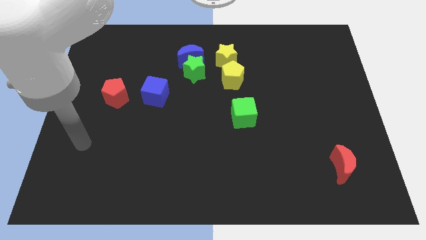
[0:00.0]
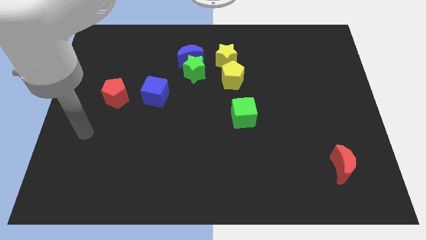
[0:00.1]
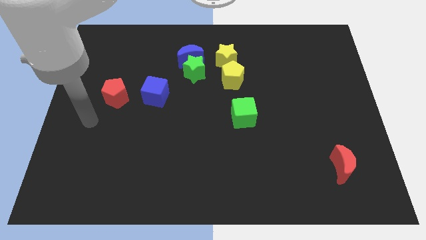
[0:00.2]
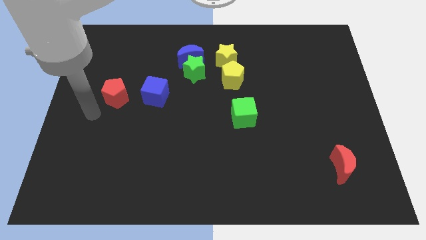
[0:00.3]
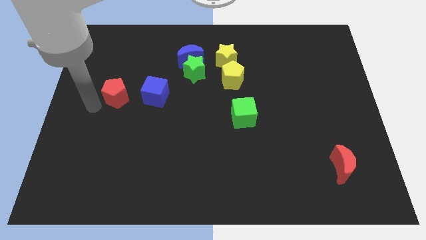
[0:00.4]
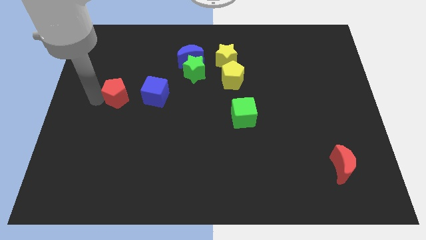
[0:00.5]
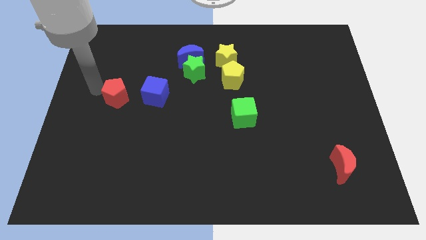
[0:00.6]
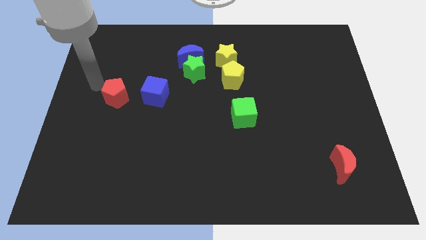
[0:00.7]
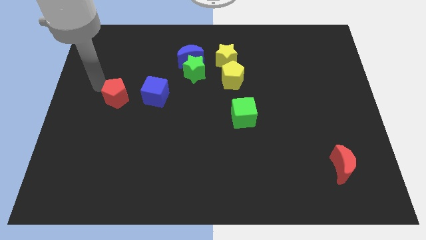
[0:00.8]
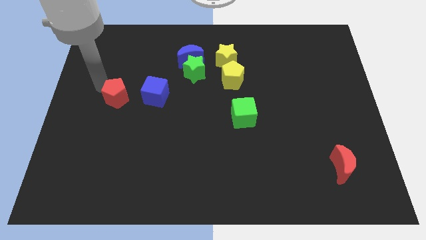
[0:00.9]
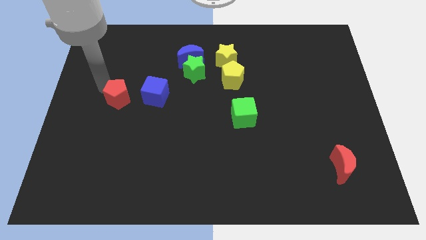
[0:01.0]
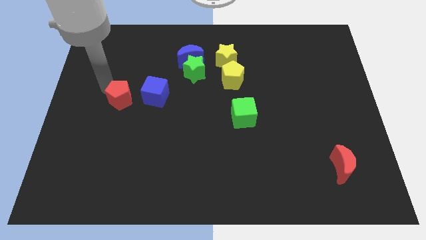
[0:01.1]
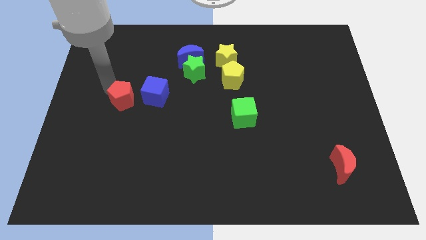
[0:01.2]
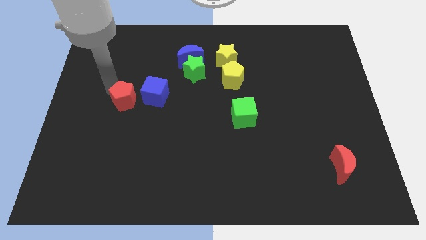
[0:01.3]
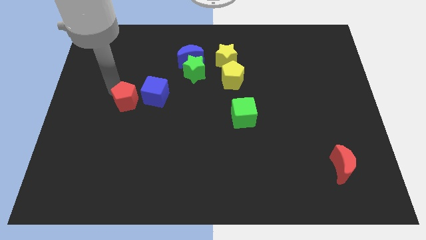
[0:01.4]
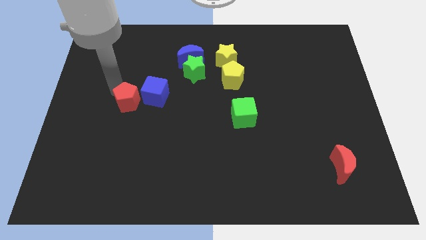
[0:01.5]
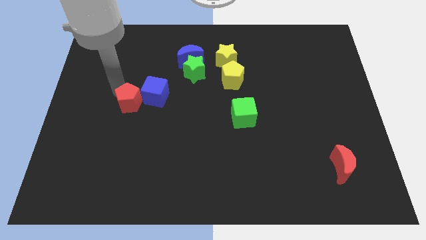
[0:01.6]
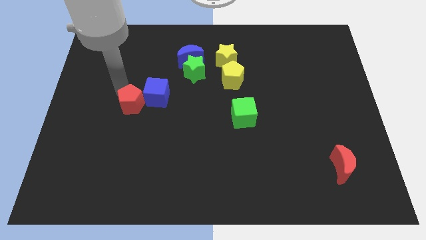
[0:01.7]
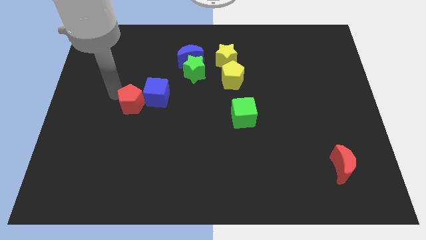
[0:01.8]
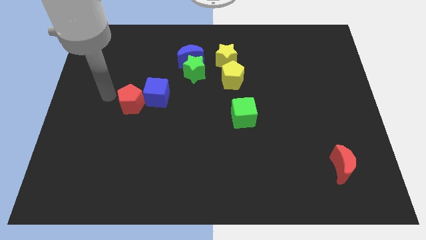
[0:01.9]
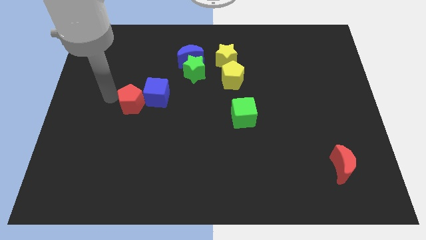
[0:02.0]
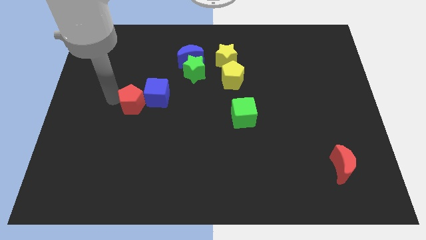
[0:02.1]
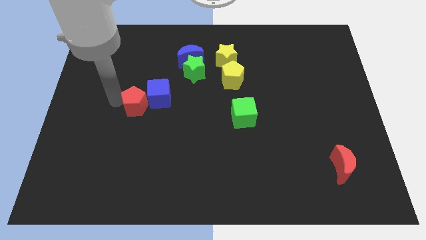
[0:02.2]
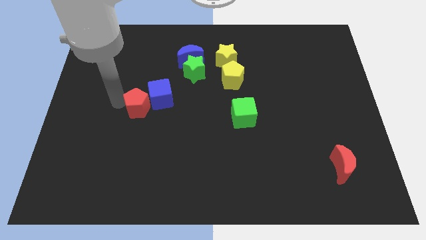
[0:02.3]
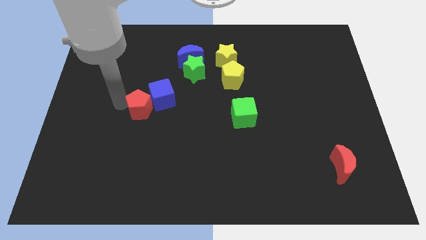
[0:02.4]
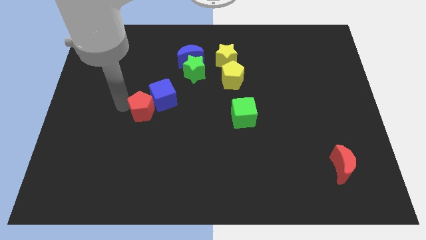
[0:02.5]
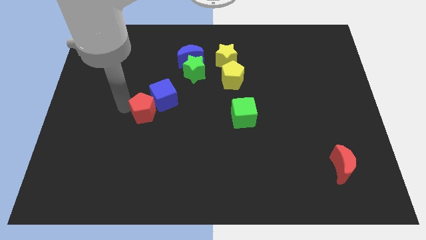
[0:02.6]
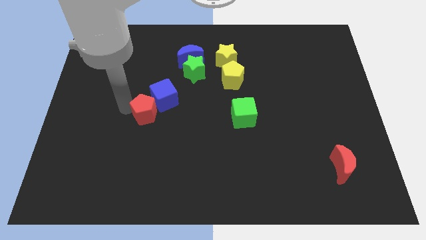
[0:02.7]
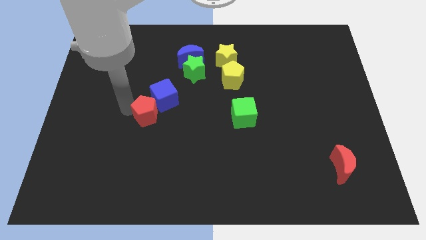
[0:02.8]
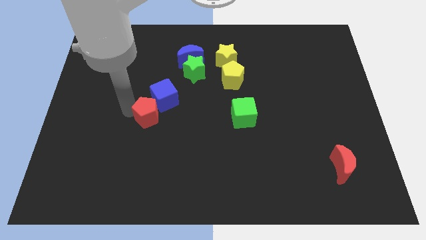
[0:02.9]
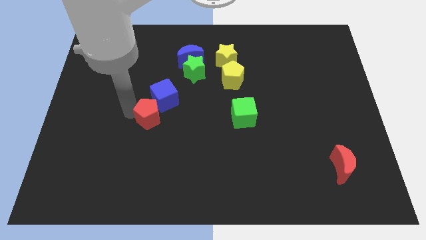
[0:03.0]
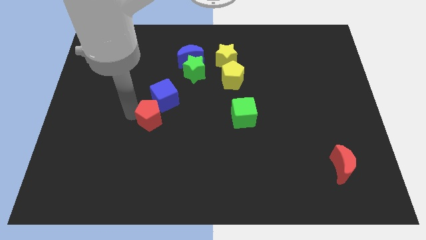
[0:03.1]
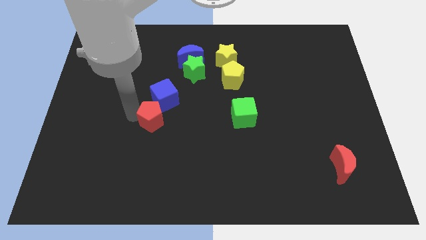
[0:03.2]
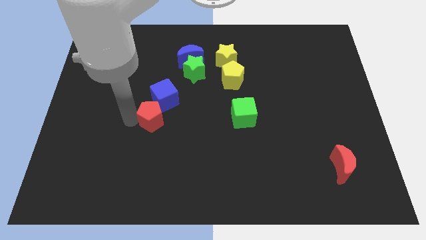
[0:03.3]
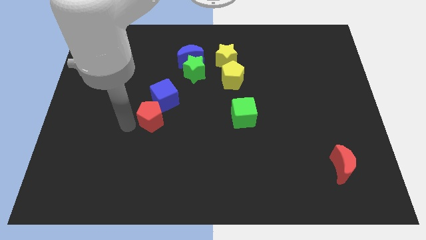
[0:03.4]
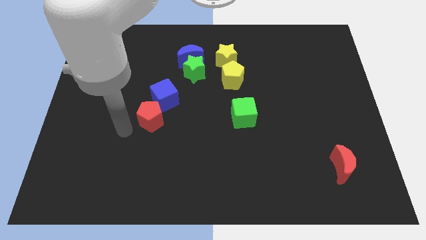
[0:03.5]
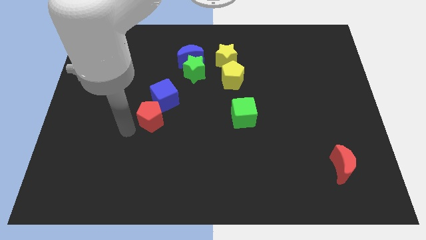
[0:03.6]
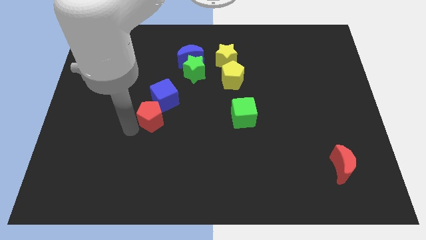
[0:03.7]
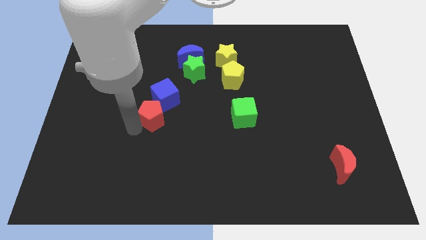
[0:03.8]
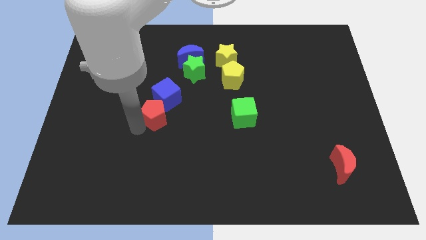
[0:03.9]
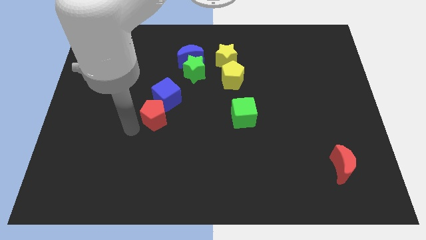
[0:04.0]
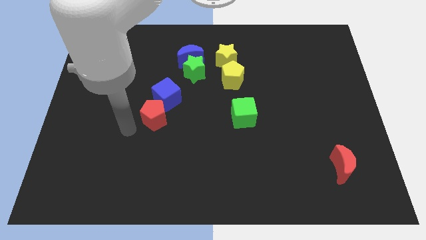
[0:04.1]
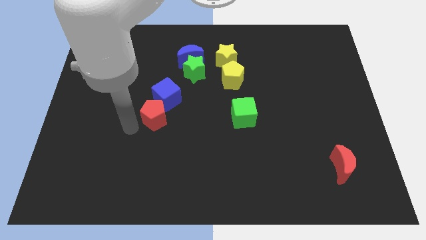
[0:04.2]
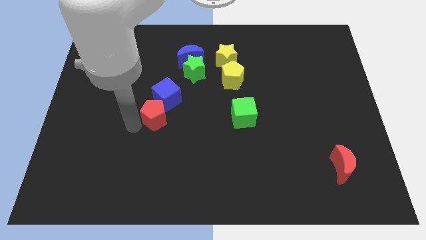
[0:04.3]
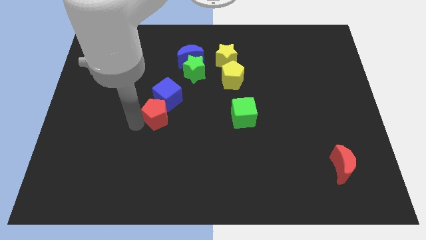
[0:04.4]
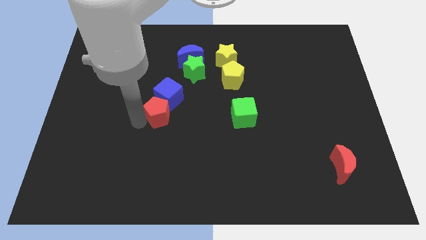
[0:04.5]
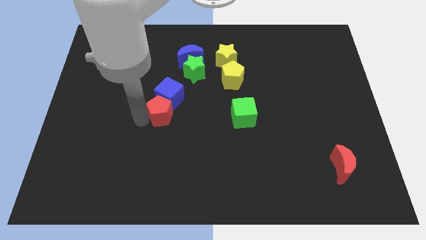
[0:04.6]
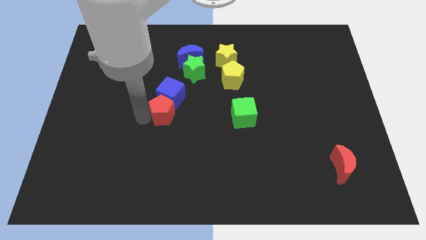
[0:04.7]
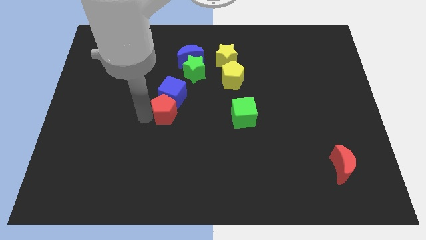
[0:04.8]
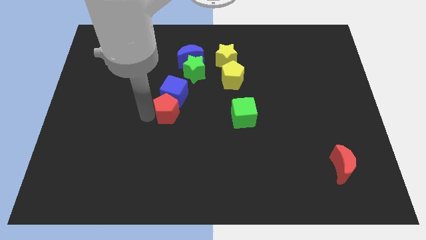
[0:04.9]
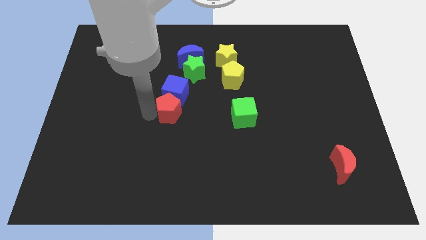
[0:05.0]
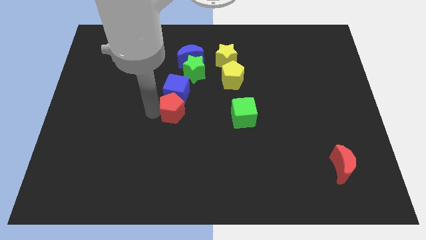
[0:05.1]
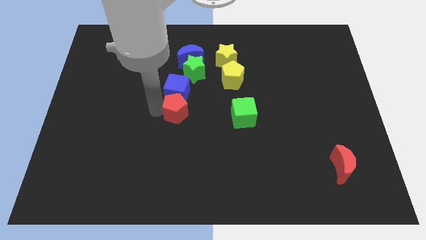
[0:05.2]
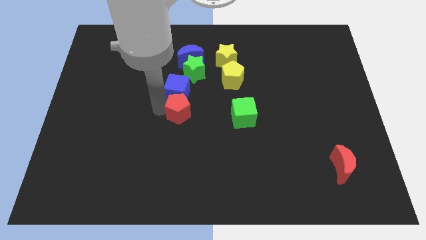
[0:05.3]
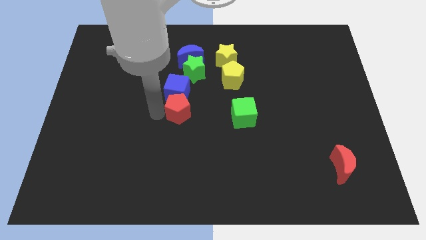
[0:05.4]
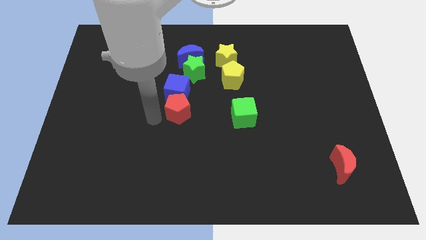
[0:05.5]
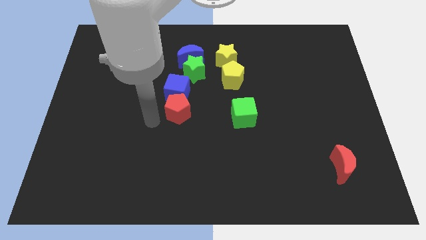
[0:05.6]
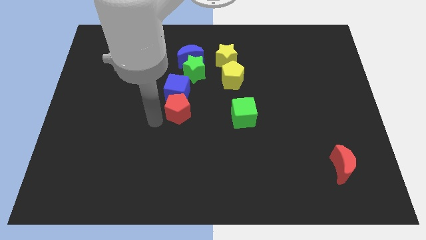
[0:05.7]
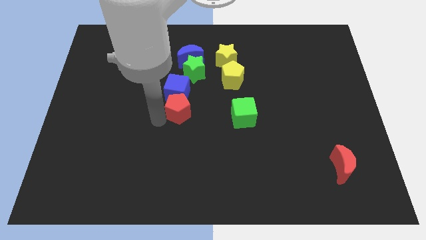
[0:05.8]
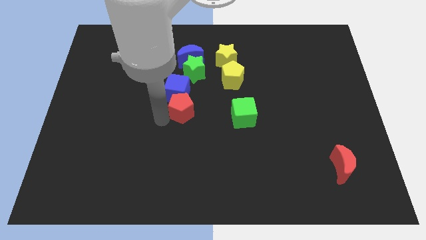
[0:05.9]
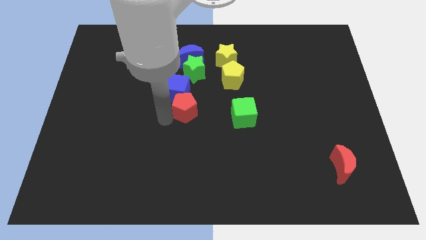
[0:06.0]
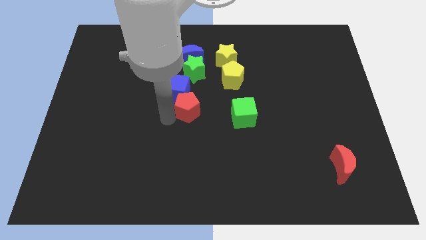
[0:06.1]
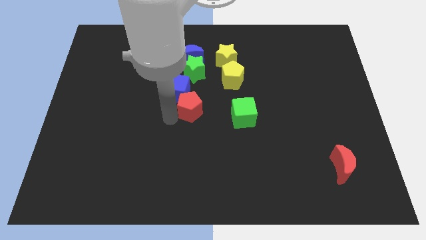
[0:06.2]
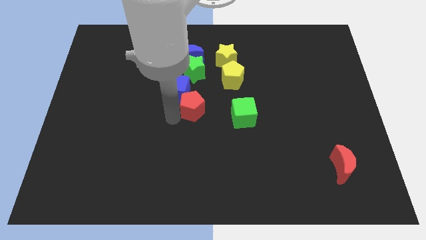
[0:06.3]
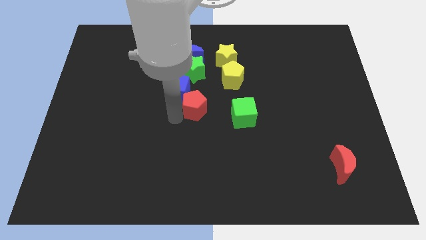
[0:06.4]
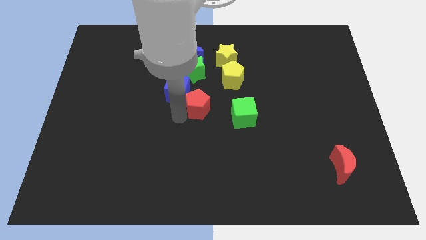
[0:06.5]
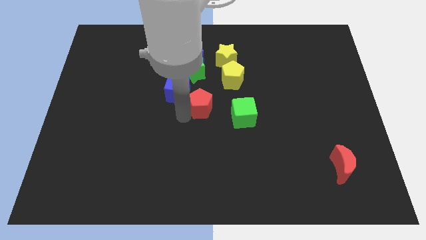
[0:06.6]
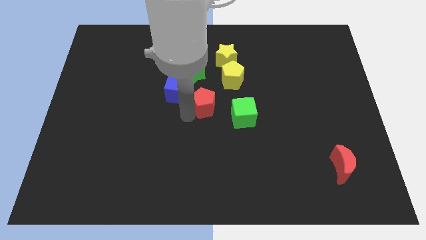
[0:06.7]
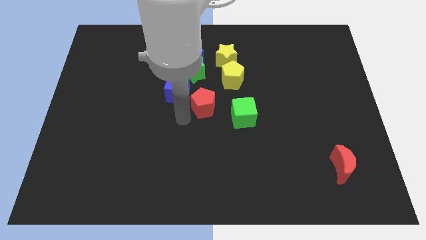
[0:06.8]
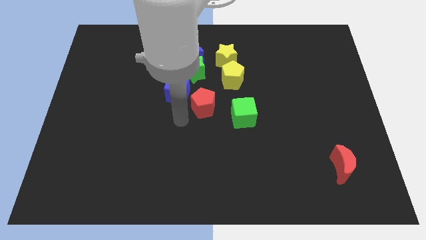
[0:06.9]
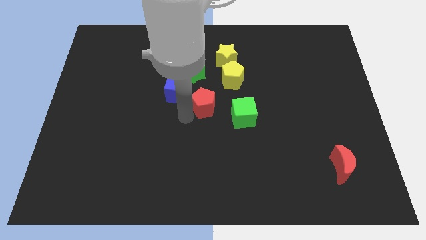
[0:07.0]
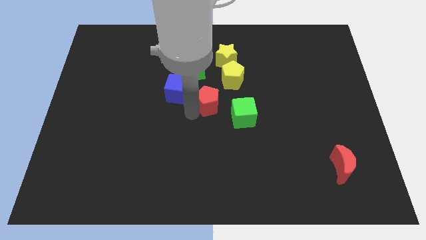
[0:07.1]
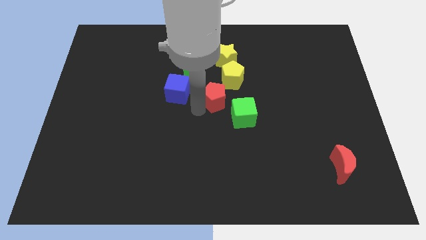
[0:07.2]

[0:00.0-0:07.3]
put the red pentagon to the bottom of the yellow star

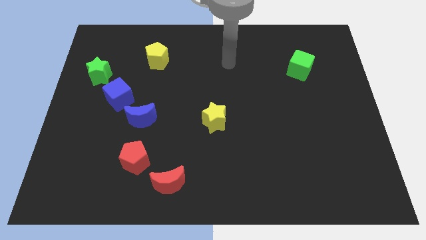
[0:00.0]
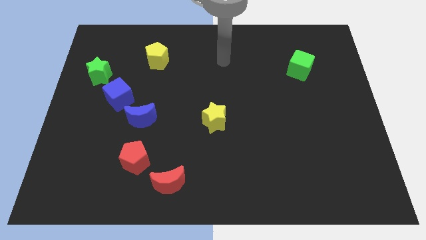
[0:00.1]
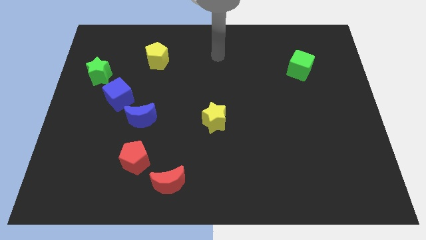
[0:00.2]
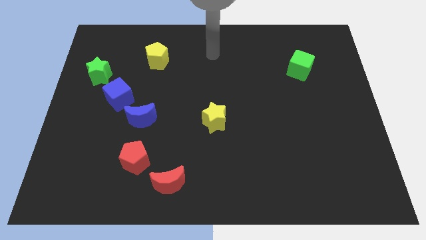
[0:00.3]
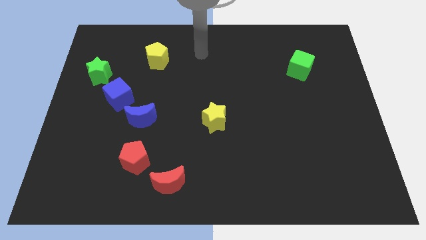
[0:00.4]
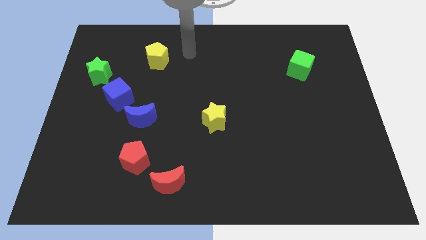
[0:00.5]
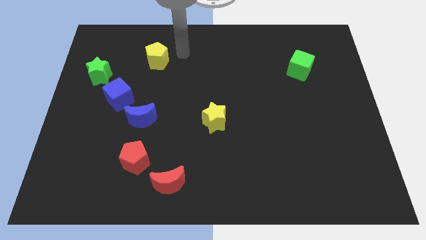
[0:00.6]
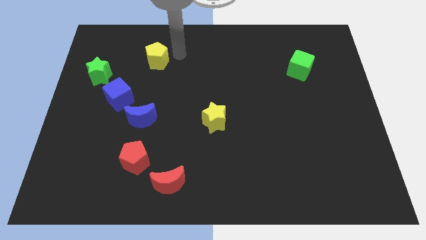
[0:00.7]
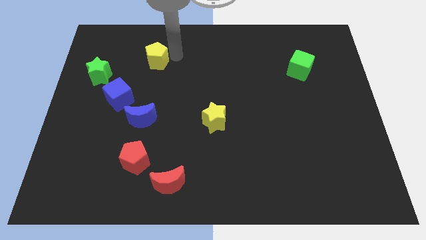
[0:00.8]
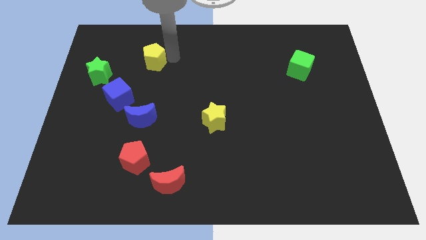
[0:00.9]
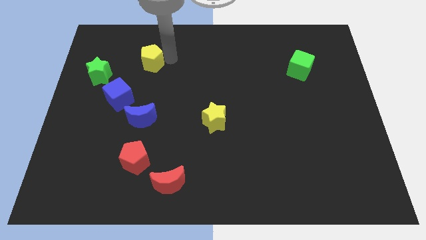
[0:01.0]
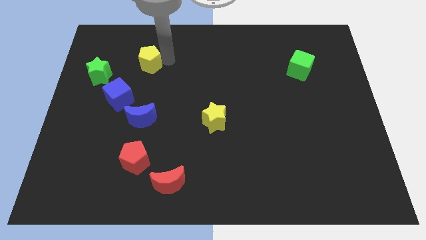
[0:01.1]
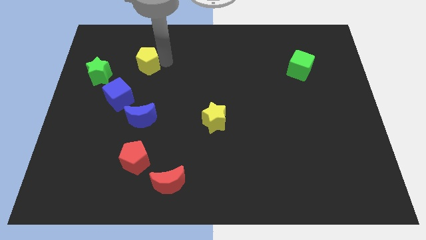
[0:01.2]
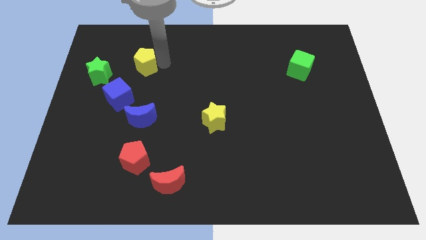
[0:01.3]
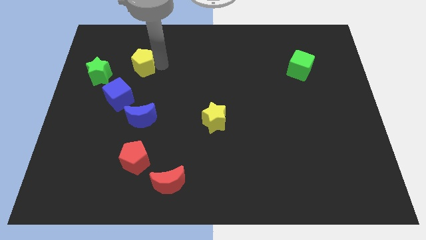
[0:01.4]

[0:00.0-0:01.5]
push the yellow pentagon to the top side of the blue cube
